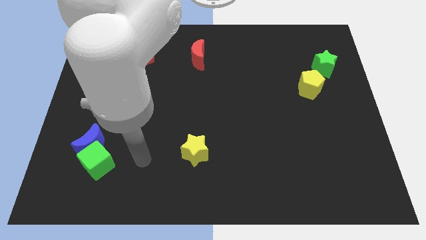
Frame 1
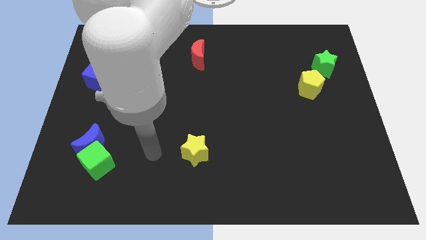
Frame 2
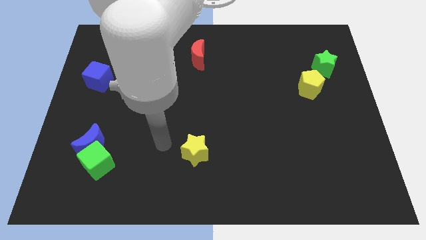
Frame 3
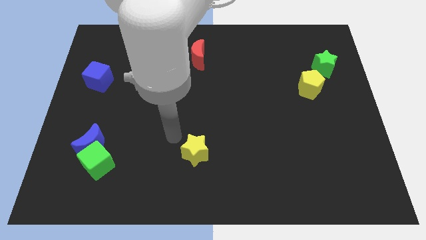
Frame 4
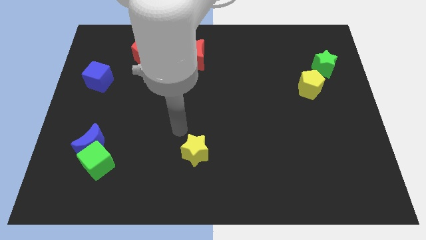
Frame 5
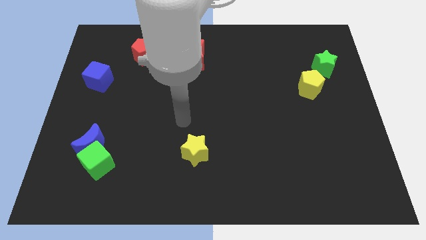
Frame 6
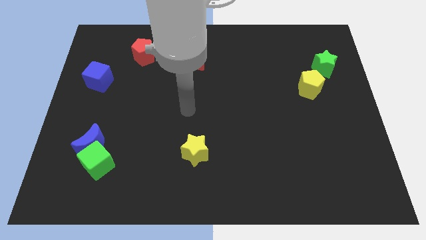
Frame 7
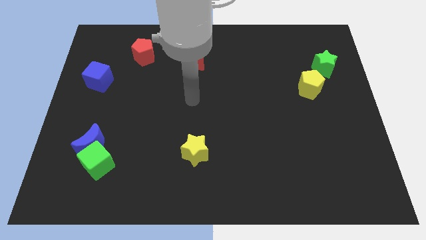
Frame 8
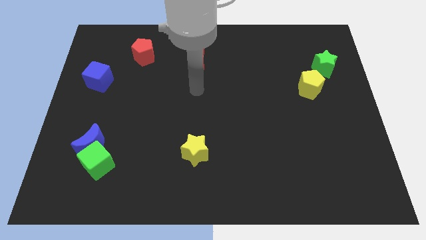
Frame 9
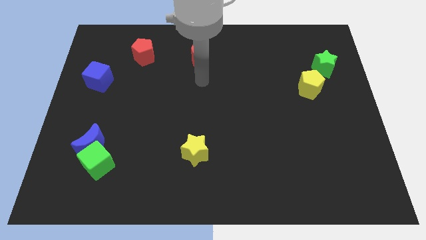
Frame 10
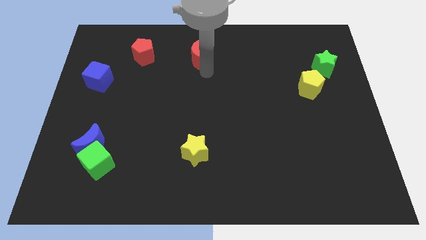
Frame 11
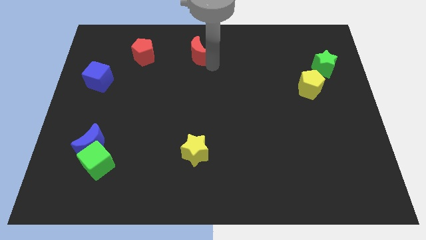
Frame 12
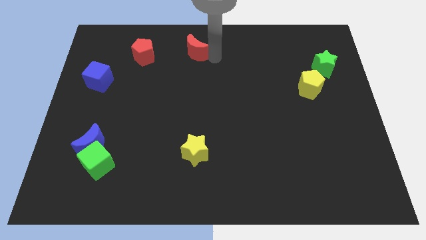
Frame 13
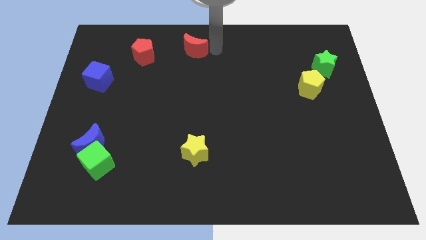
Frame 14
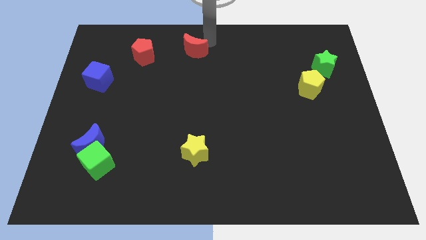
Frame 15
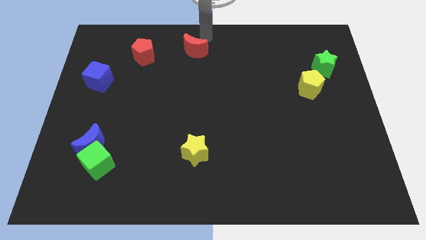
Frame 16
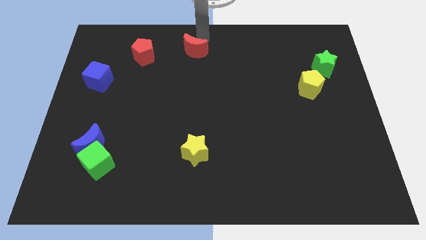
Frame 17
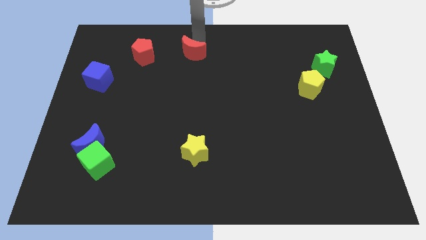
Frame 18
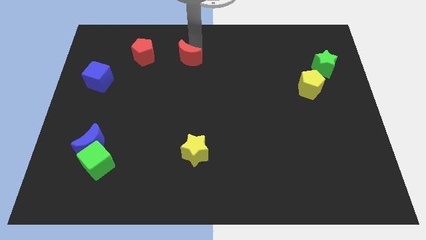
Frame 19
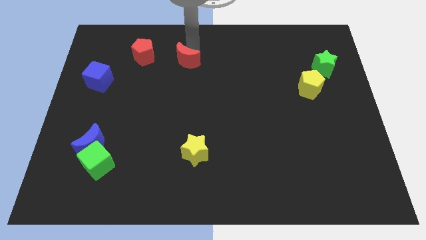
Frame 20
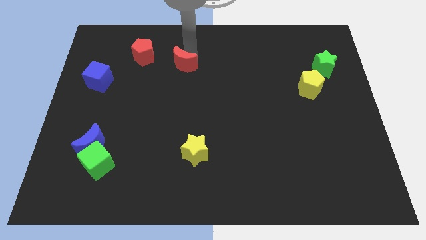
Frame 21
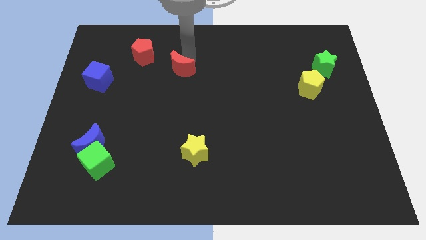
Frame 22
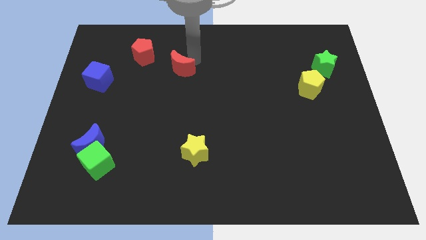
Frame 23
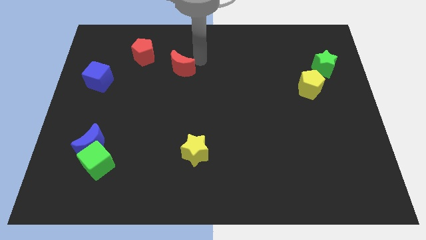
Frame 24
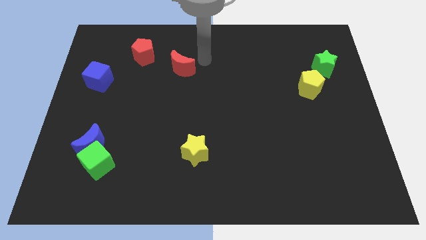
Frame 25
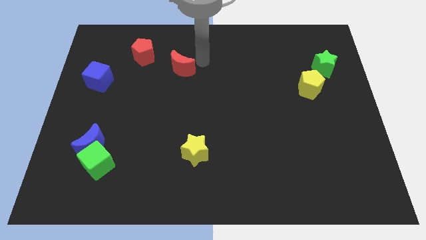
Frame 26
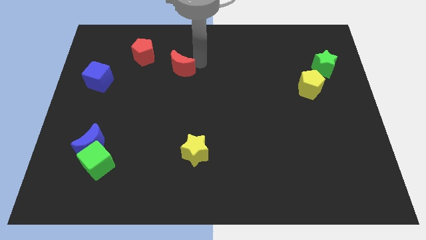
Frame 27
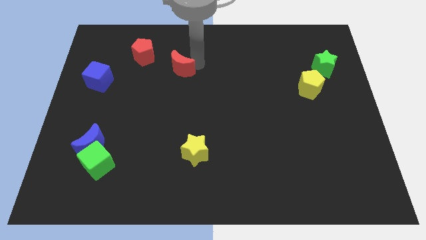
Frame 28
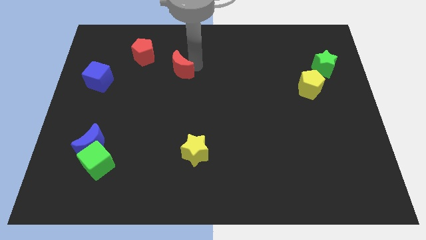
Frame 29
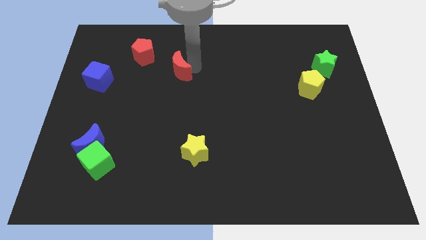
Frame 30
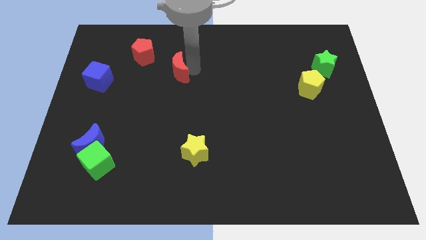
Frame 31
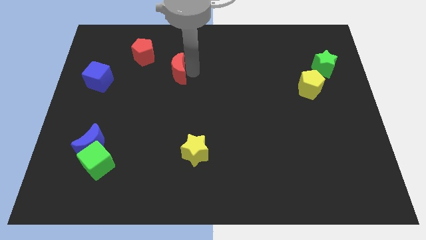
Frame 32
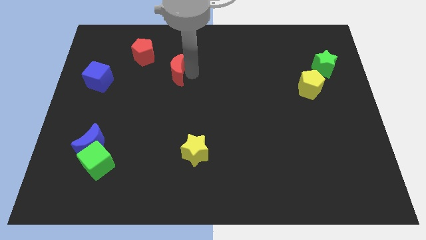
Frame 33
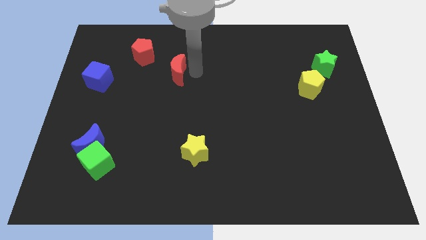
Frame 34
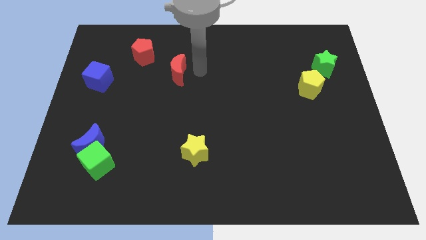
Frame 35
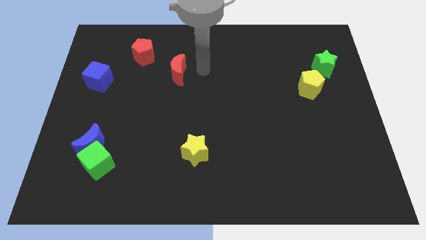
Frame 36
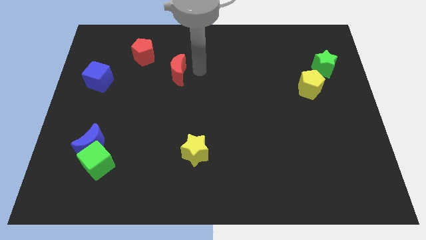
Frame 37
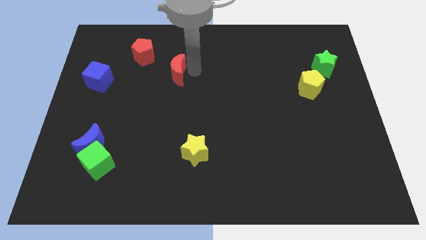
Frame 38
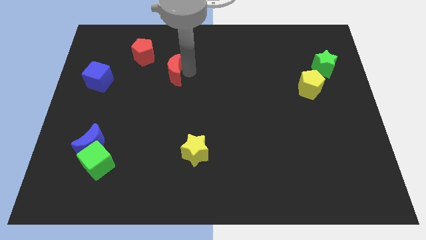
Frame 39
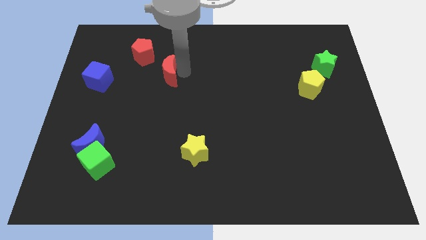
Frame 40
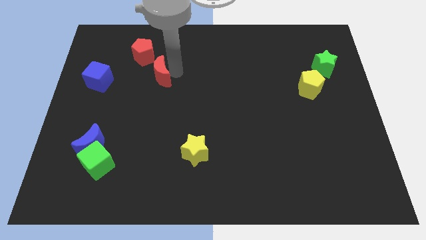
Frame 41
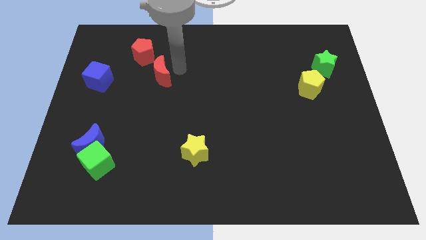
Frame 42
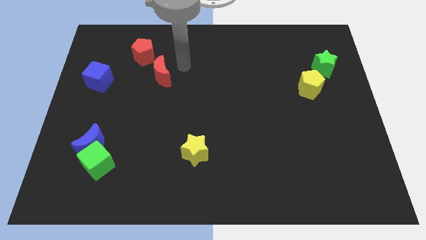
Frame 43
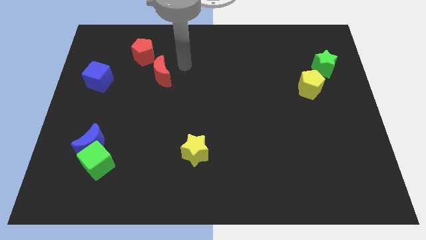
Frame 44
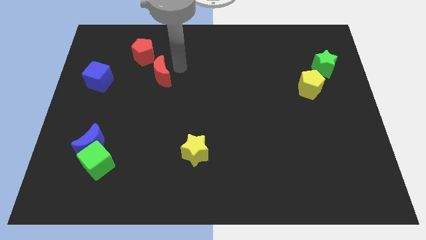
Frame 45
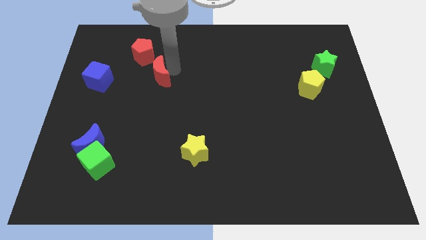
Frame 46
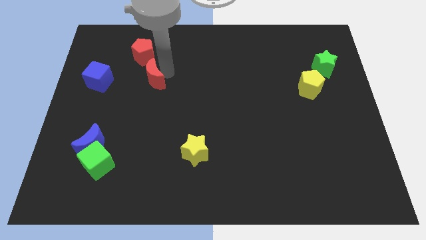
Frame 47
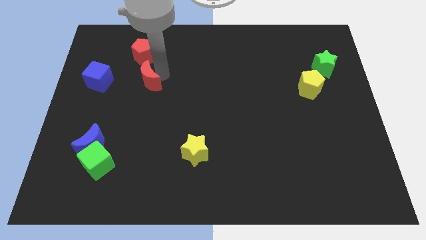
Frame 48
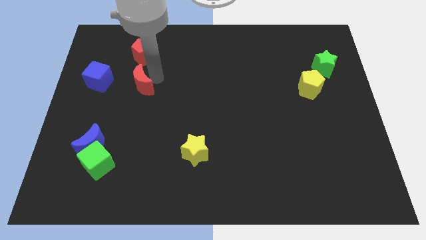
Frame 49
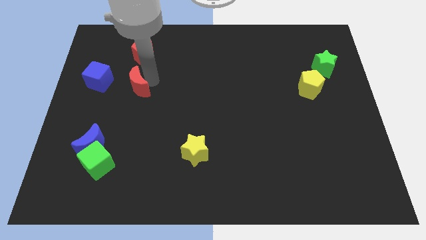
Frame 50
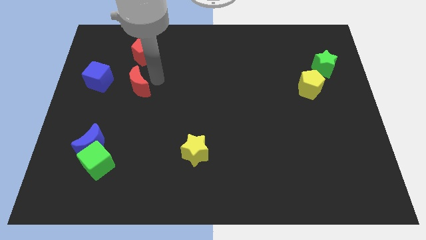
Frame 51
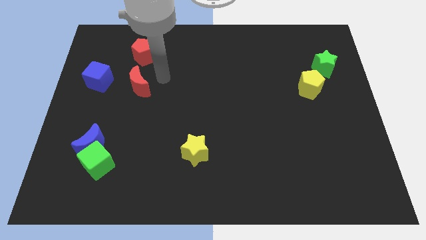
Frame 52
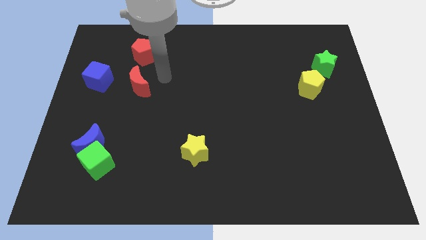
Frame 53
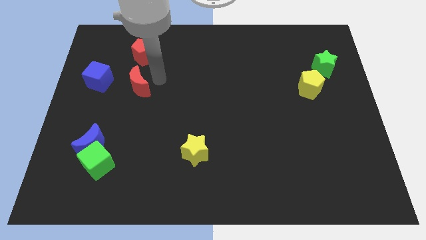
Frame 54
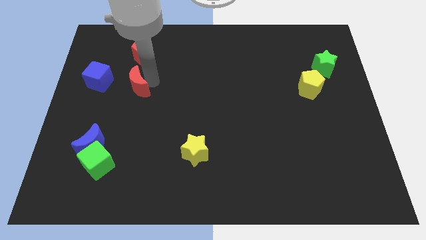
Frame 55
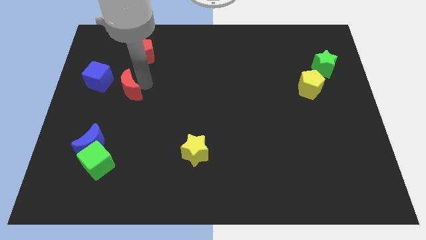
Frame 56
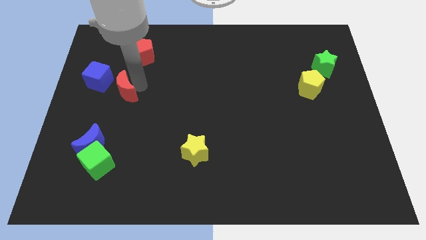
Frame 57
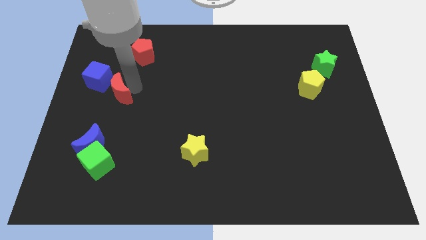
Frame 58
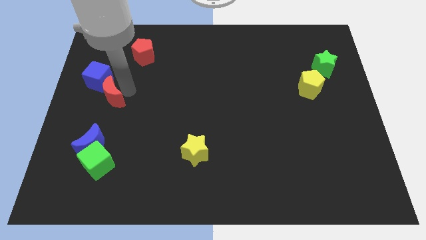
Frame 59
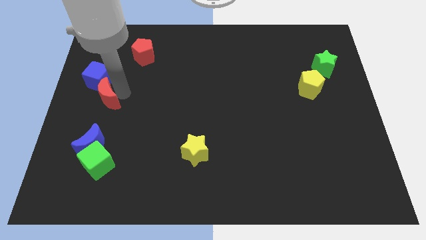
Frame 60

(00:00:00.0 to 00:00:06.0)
push the red moon to the left side

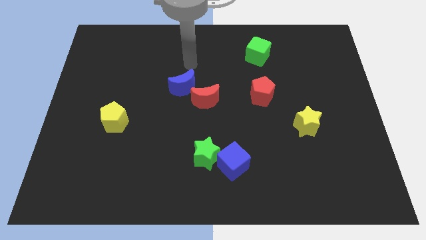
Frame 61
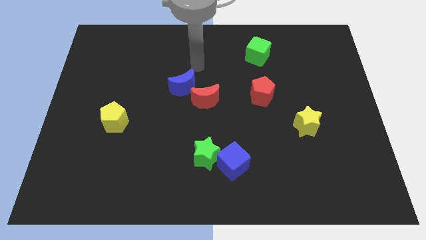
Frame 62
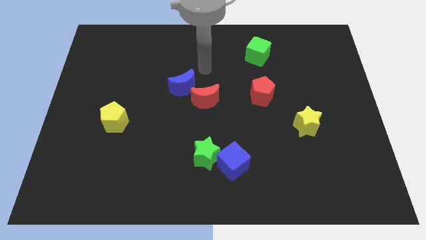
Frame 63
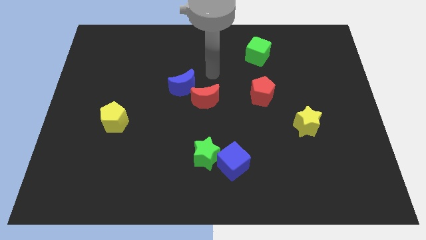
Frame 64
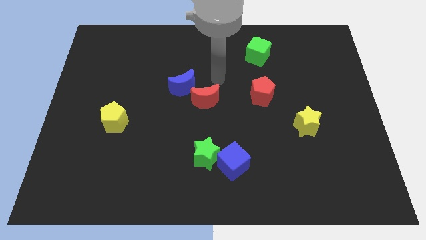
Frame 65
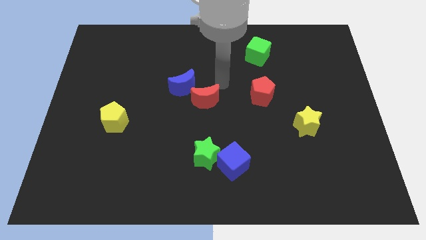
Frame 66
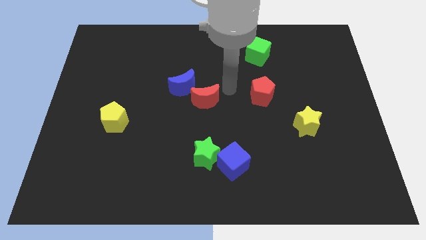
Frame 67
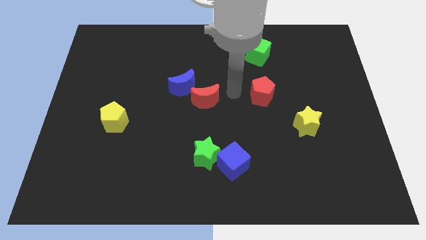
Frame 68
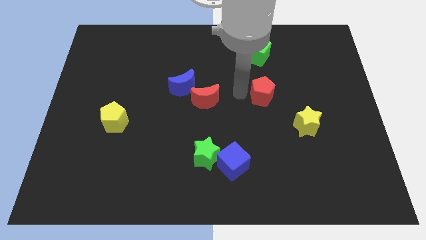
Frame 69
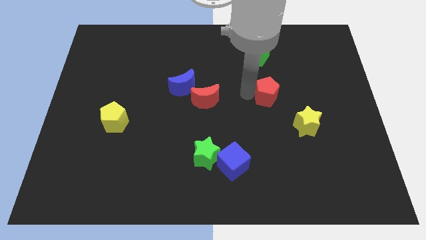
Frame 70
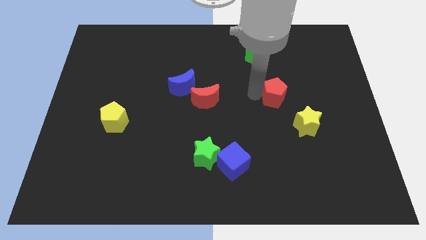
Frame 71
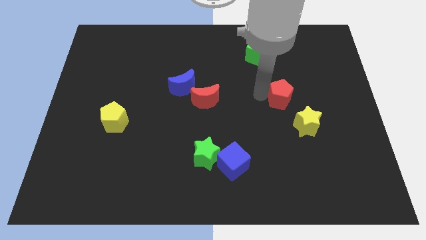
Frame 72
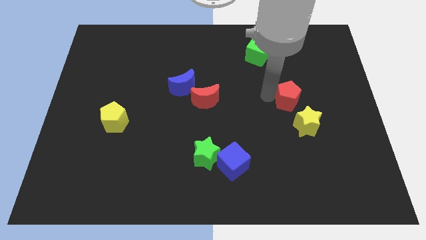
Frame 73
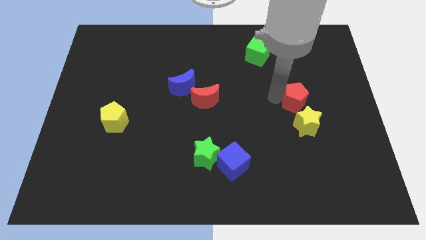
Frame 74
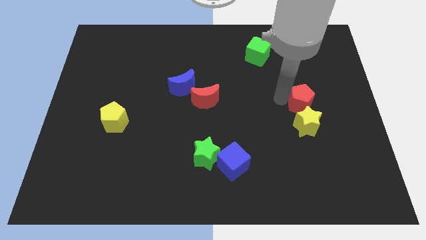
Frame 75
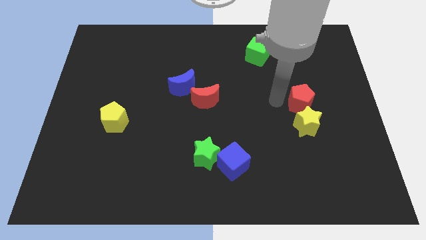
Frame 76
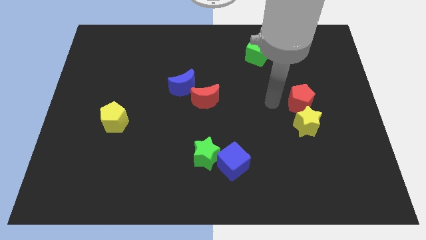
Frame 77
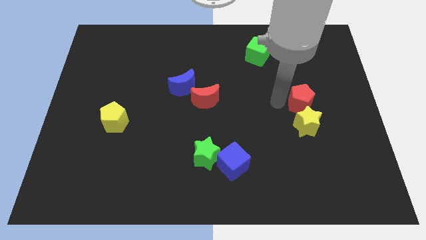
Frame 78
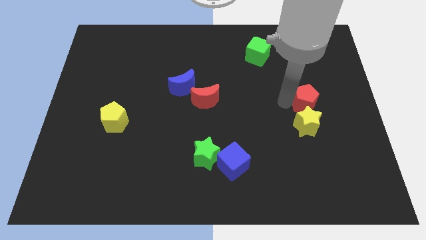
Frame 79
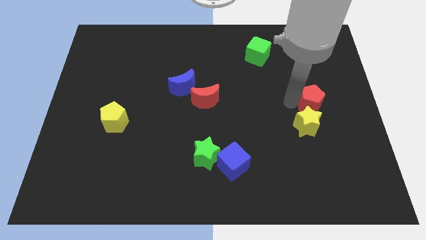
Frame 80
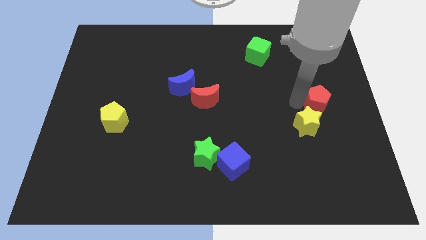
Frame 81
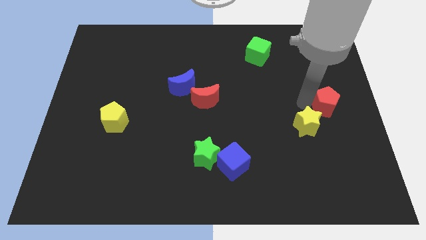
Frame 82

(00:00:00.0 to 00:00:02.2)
put the red pentagon to the right side
